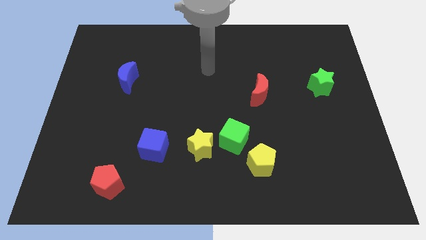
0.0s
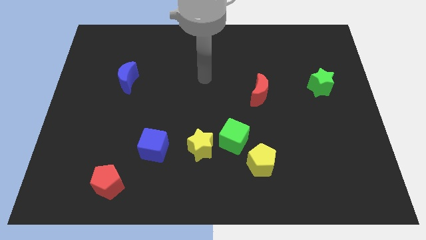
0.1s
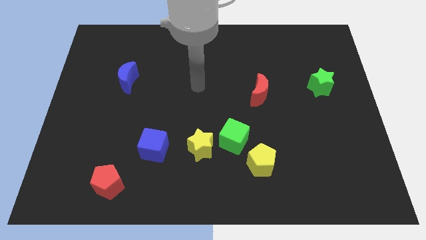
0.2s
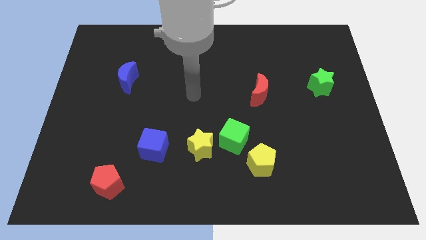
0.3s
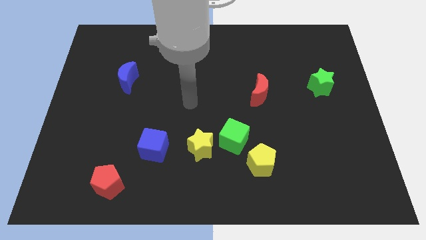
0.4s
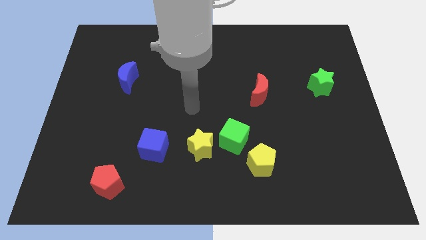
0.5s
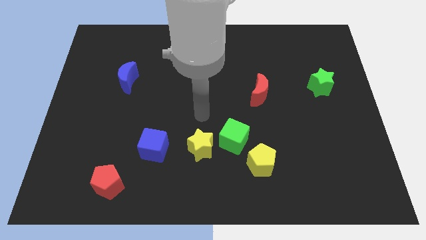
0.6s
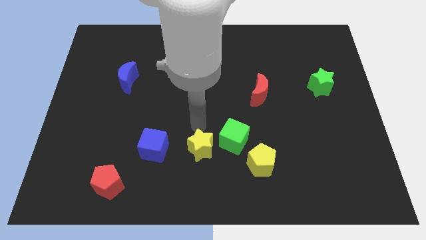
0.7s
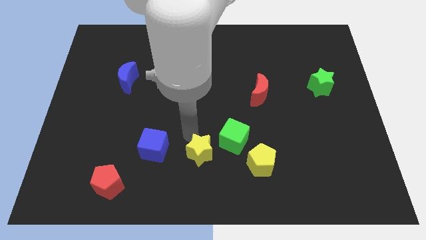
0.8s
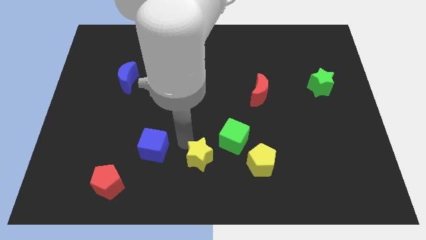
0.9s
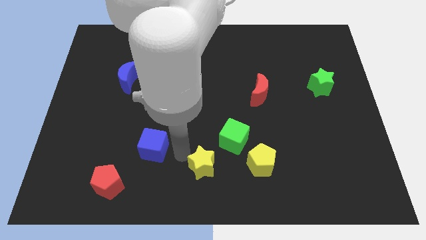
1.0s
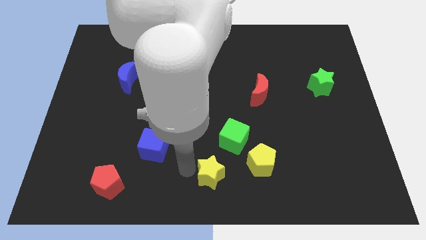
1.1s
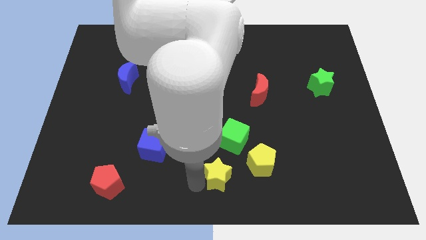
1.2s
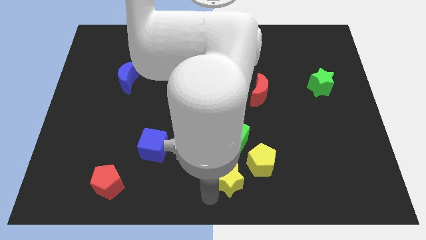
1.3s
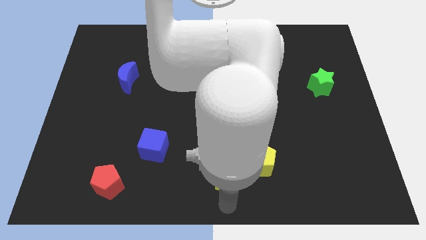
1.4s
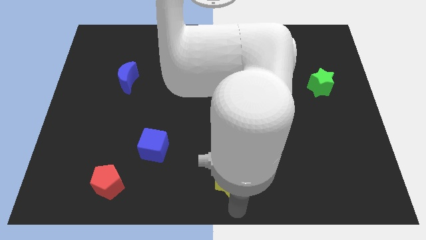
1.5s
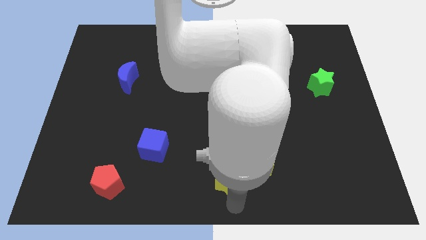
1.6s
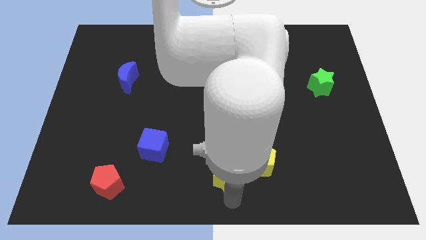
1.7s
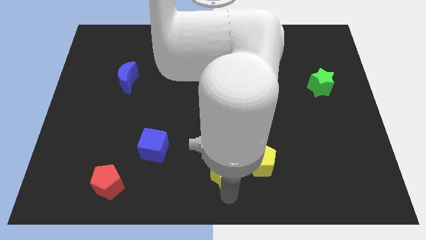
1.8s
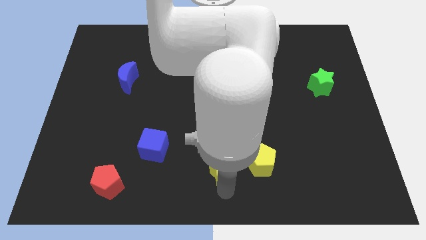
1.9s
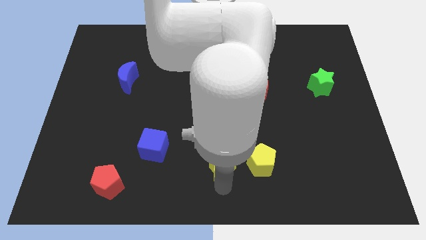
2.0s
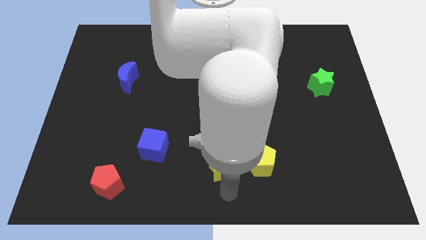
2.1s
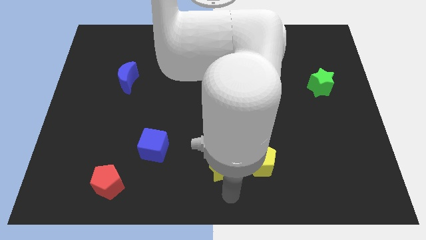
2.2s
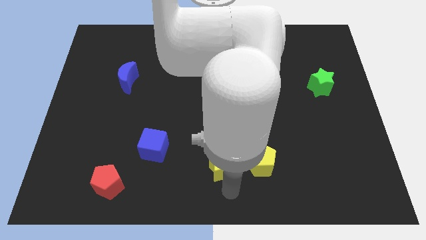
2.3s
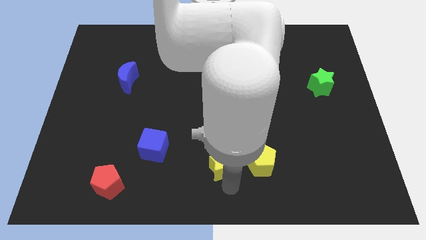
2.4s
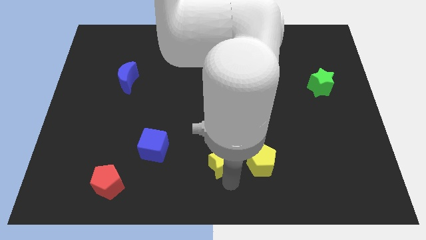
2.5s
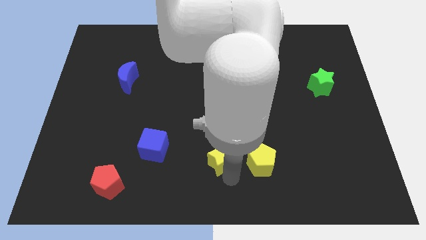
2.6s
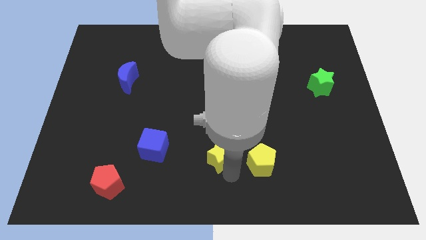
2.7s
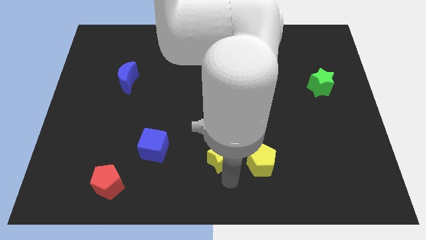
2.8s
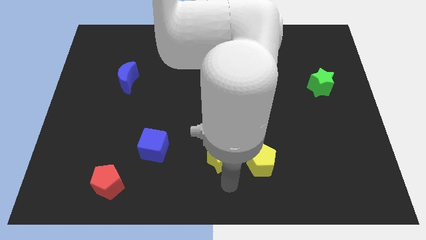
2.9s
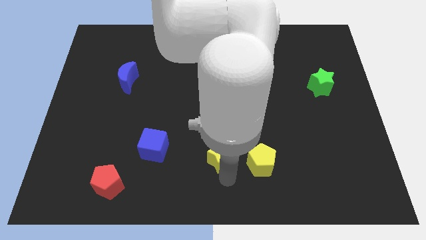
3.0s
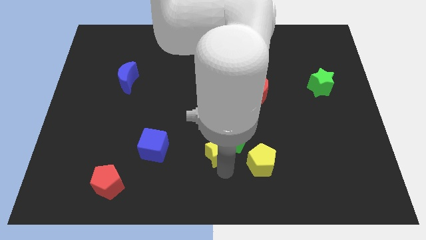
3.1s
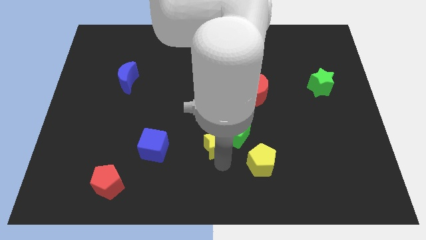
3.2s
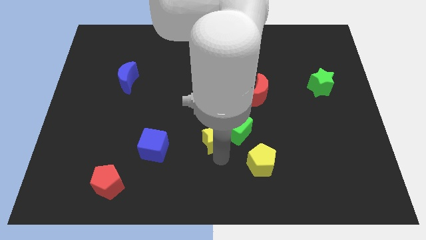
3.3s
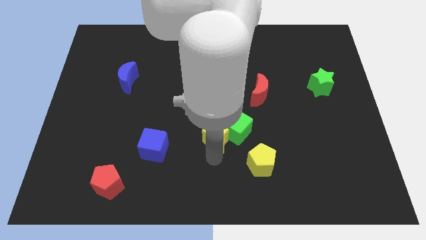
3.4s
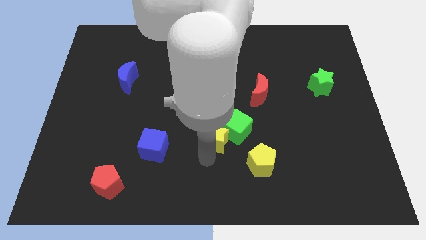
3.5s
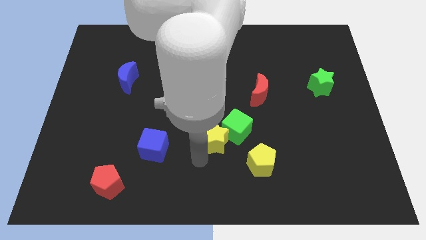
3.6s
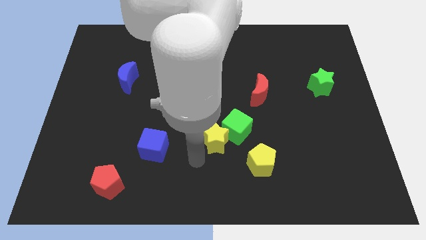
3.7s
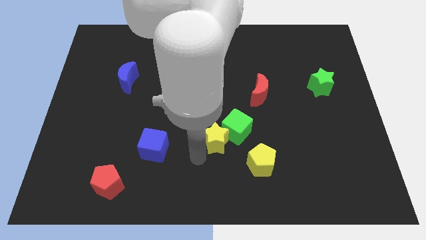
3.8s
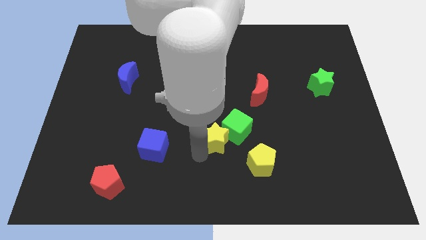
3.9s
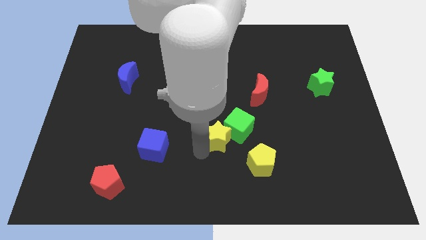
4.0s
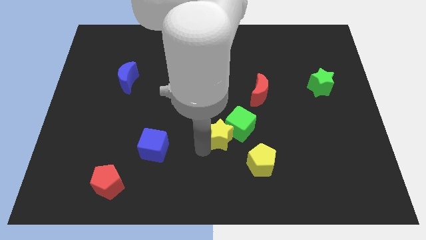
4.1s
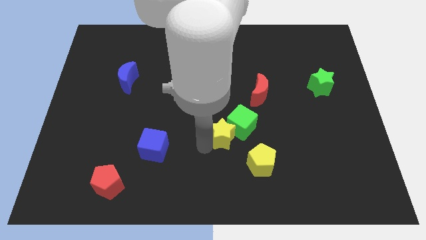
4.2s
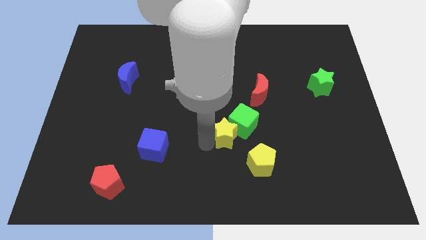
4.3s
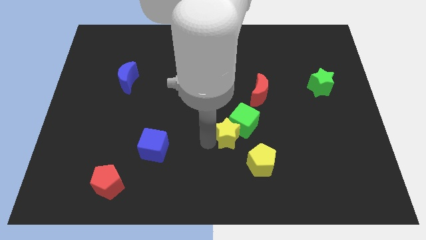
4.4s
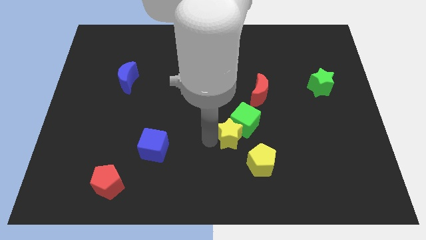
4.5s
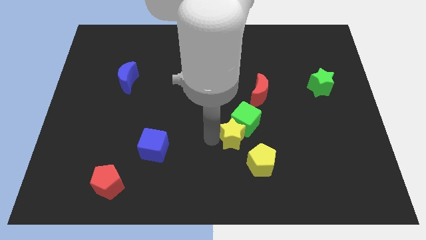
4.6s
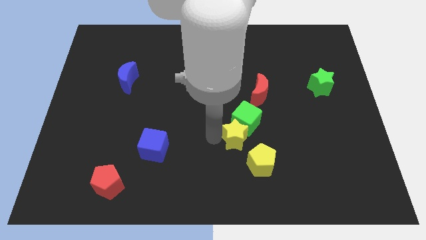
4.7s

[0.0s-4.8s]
push the yellow star a bit right

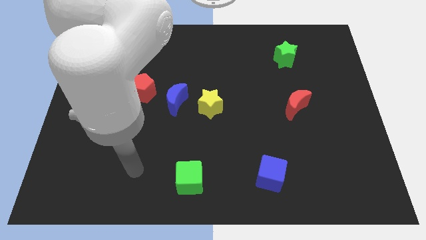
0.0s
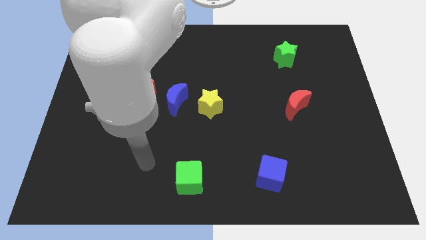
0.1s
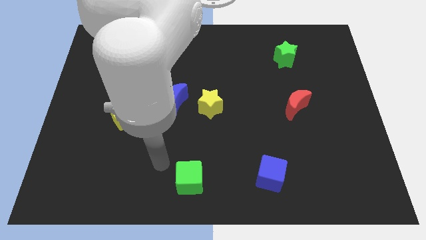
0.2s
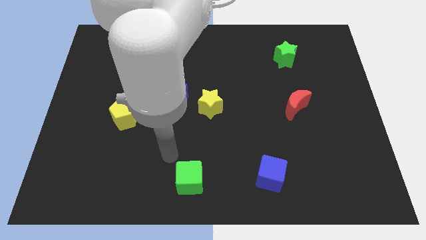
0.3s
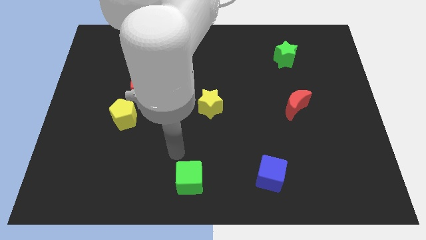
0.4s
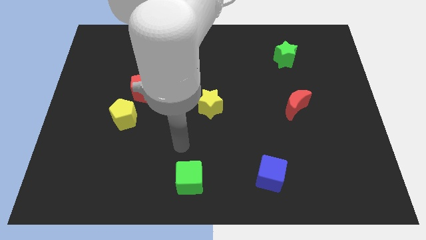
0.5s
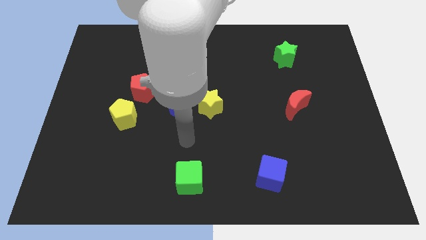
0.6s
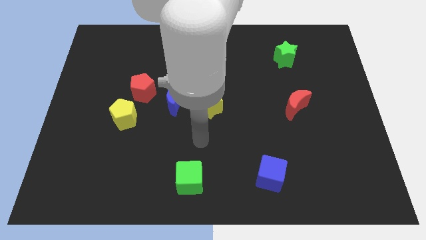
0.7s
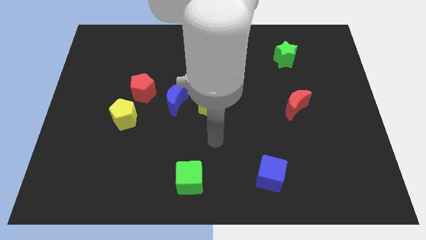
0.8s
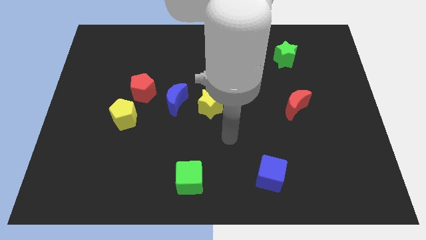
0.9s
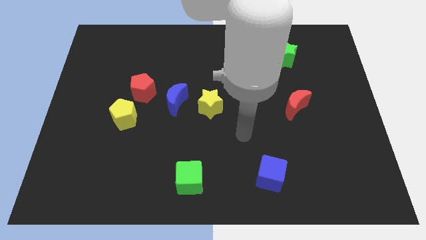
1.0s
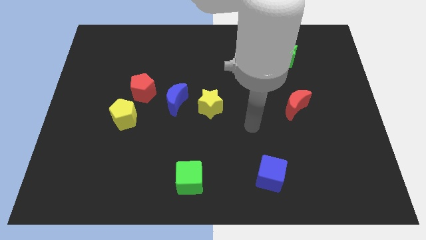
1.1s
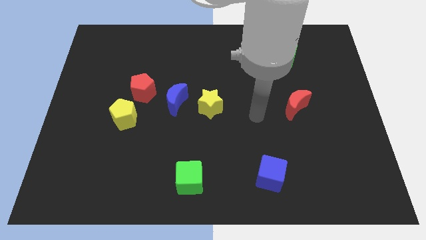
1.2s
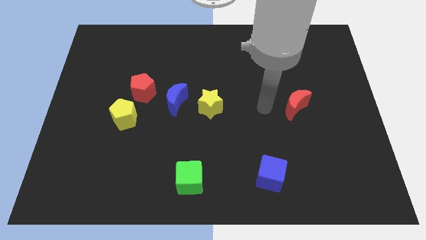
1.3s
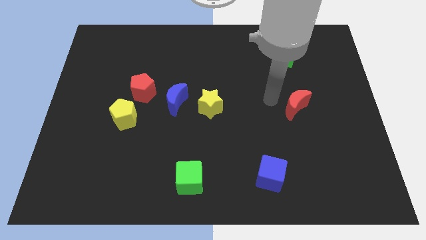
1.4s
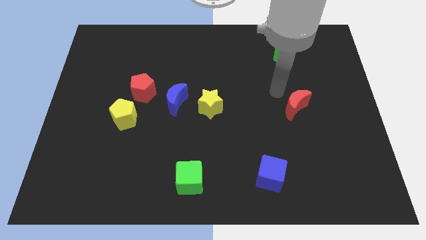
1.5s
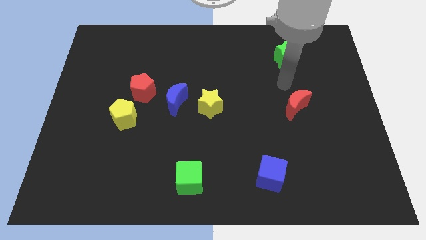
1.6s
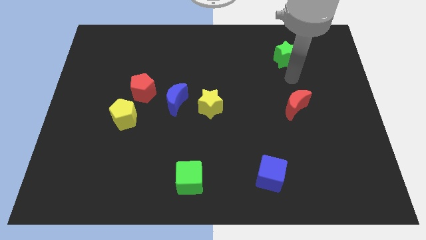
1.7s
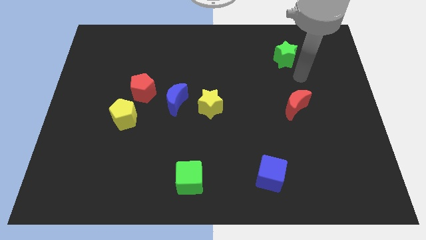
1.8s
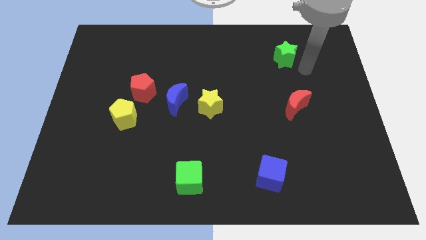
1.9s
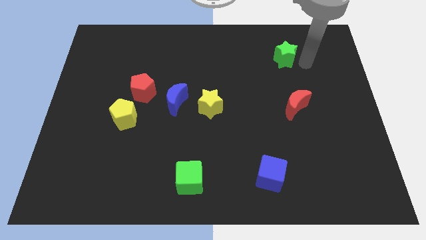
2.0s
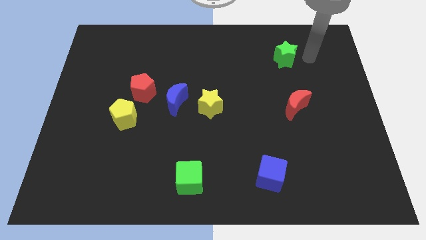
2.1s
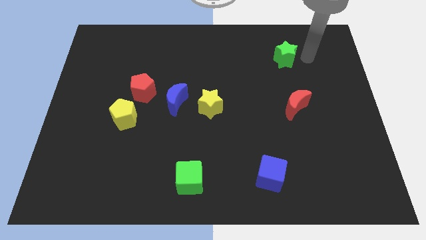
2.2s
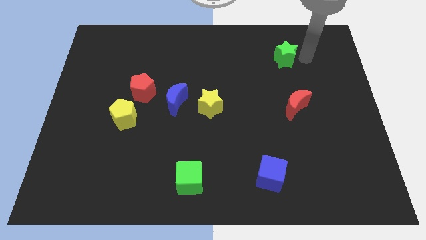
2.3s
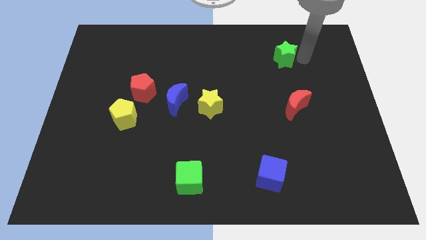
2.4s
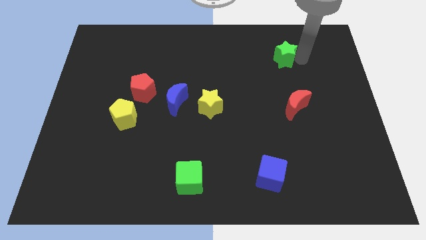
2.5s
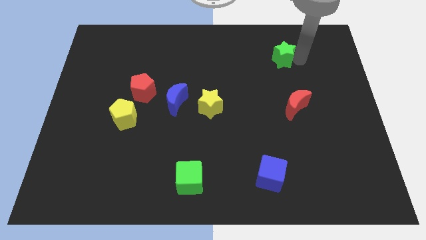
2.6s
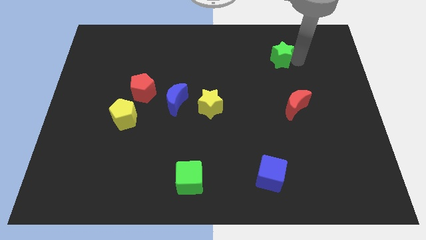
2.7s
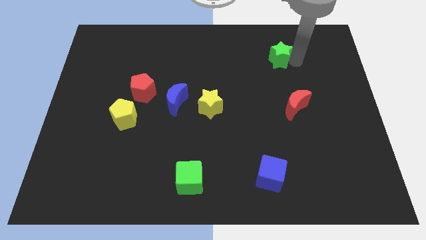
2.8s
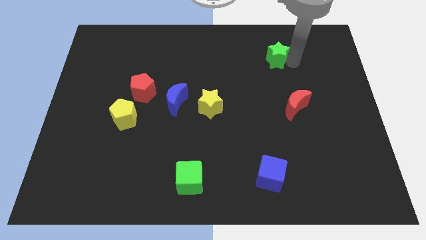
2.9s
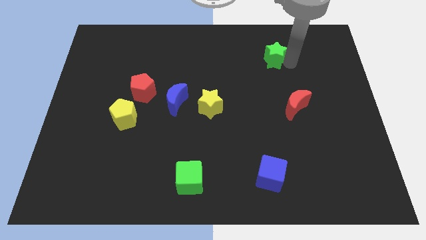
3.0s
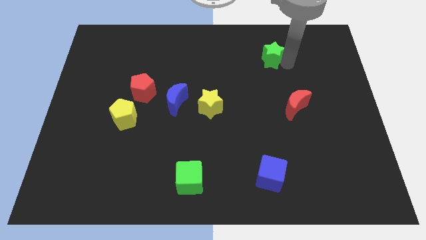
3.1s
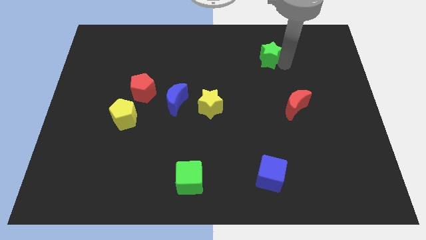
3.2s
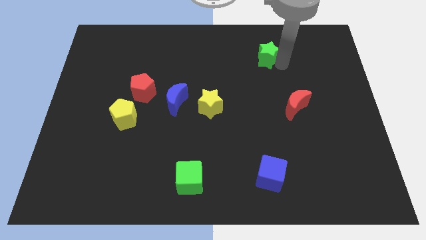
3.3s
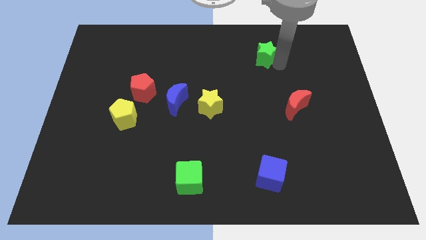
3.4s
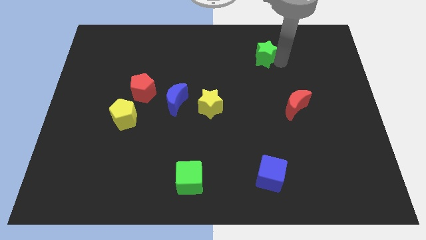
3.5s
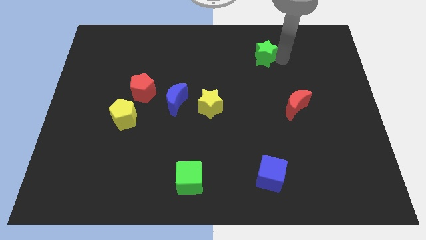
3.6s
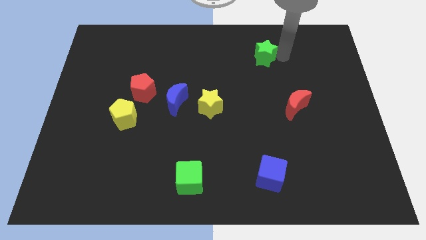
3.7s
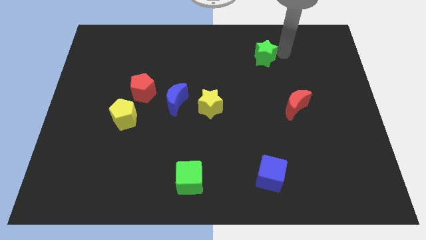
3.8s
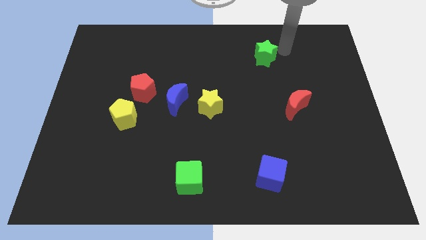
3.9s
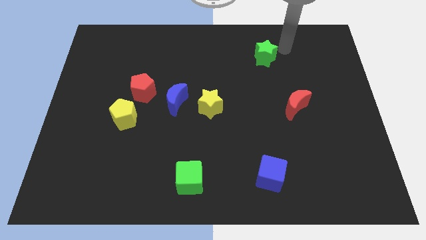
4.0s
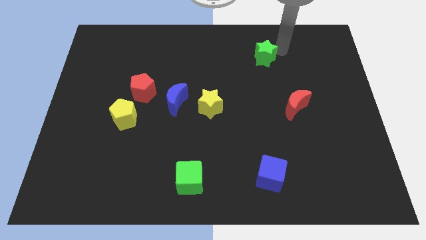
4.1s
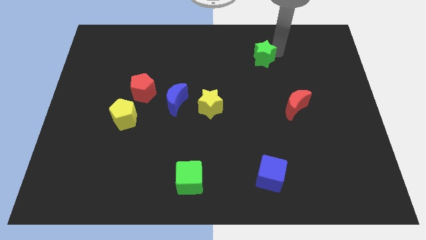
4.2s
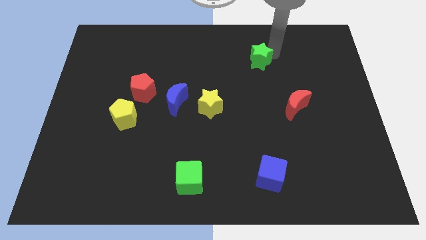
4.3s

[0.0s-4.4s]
slightly push the green star to the left
